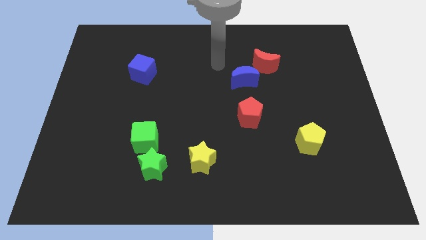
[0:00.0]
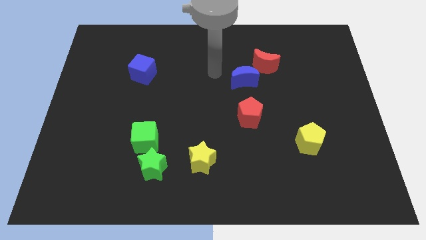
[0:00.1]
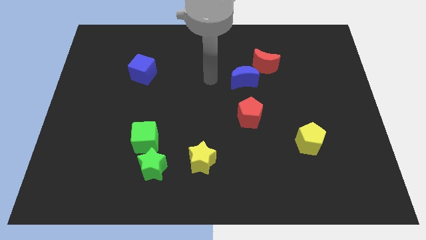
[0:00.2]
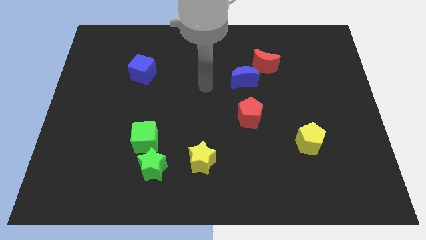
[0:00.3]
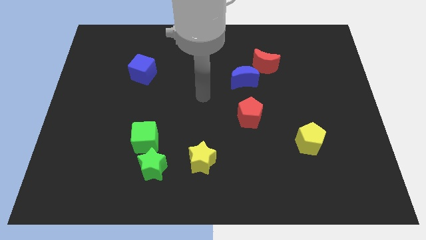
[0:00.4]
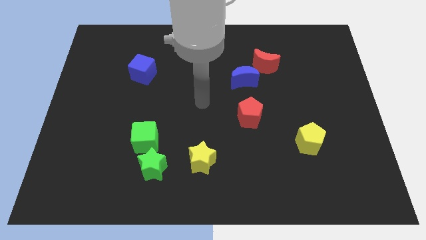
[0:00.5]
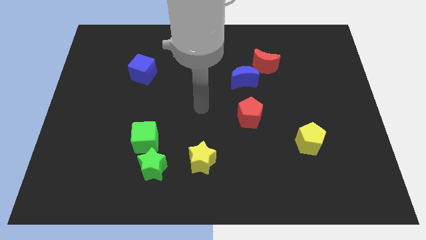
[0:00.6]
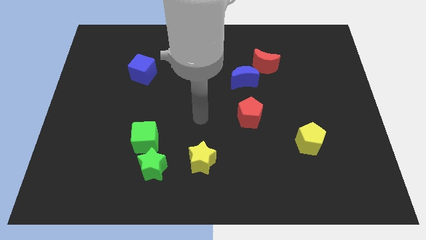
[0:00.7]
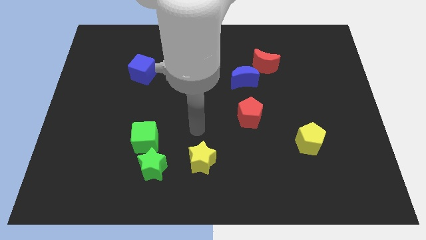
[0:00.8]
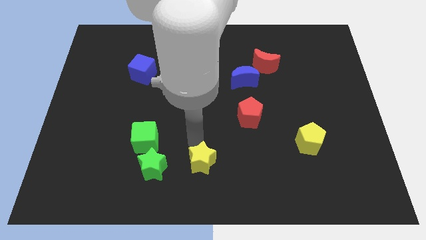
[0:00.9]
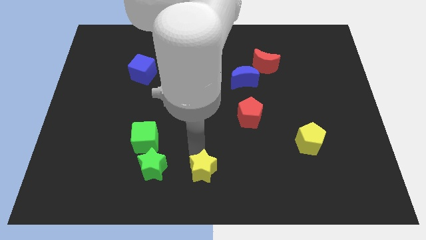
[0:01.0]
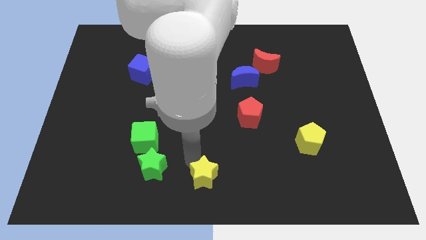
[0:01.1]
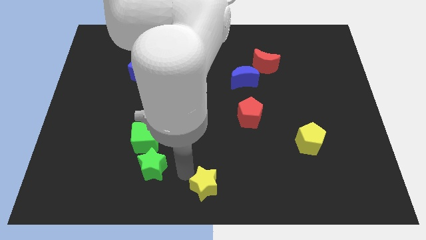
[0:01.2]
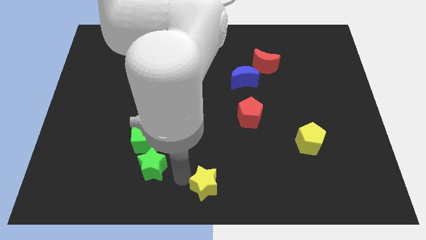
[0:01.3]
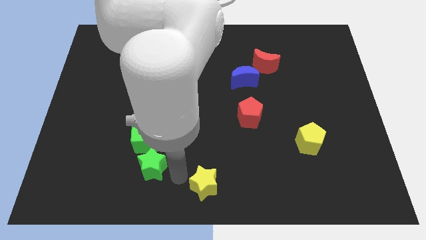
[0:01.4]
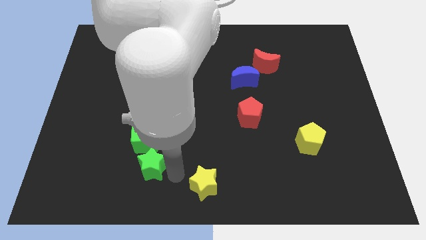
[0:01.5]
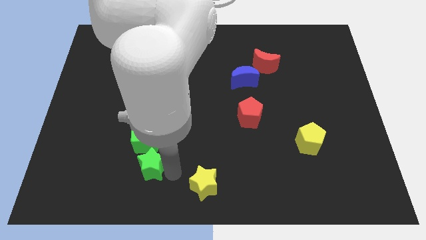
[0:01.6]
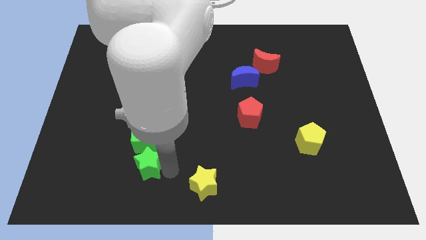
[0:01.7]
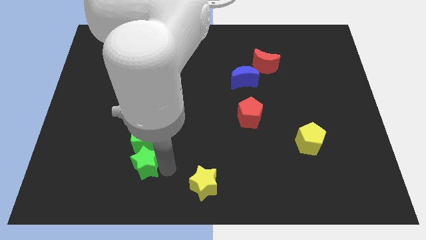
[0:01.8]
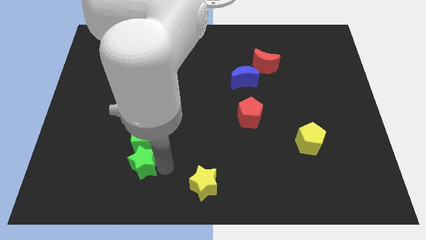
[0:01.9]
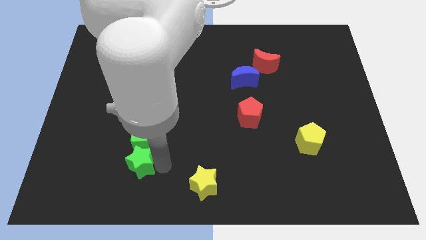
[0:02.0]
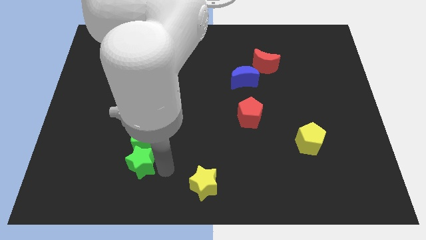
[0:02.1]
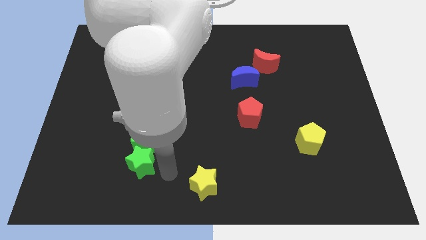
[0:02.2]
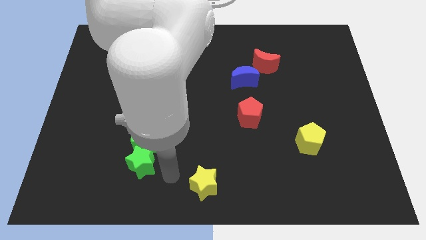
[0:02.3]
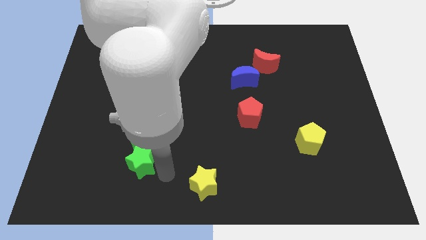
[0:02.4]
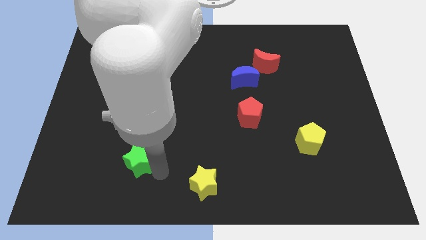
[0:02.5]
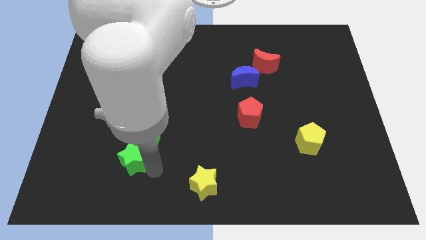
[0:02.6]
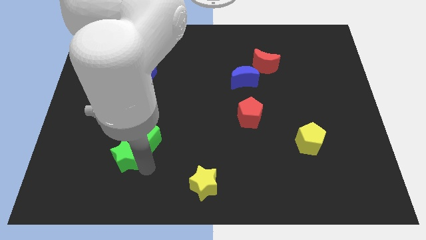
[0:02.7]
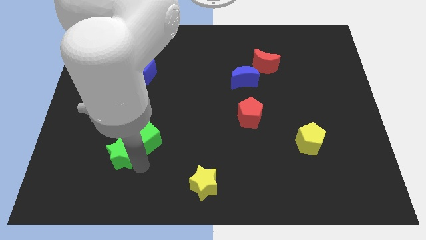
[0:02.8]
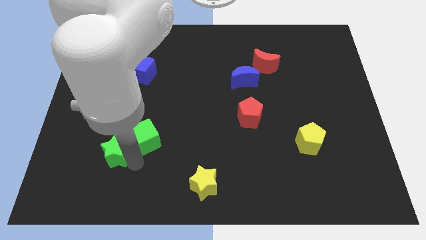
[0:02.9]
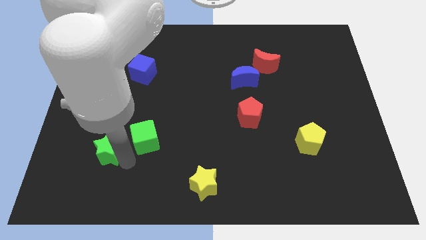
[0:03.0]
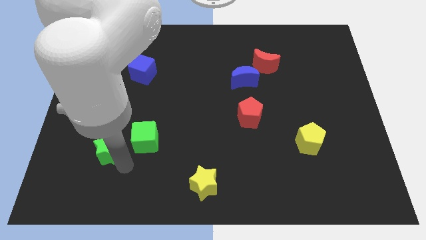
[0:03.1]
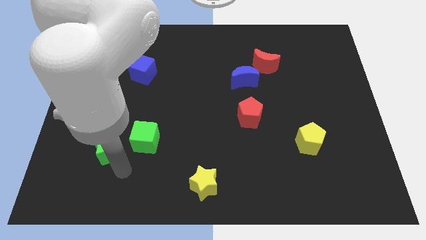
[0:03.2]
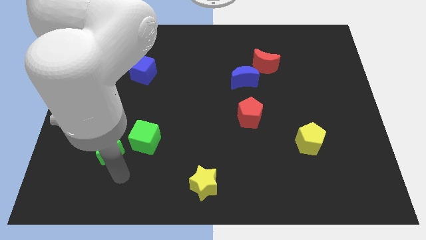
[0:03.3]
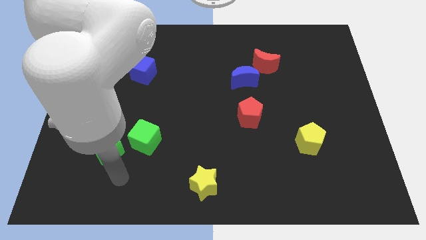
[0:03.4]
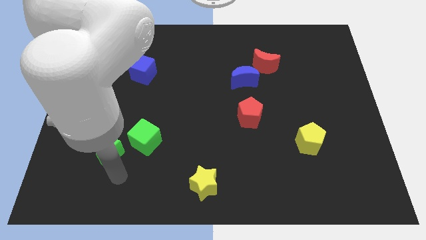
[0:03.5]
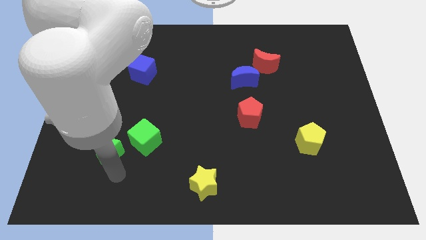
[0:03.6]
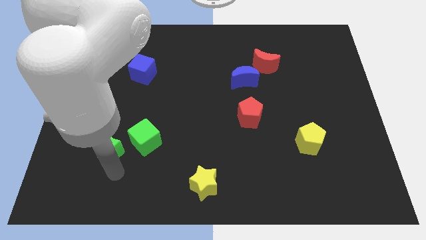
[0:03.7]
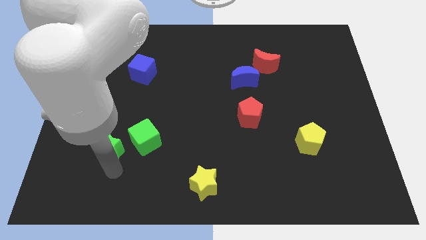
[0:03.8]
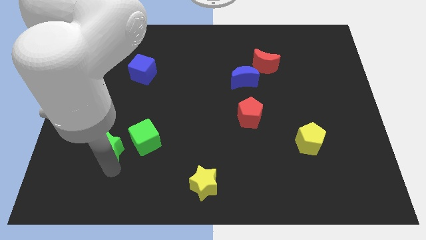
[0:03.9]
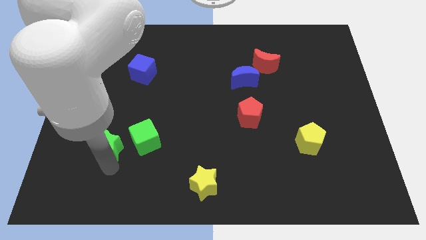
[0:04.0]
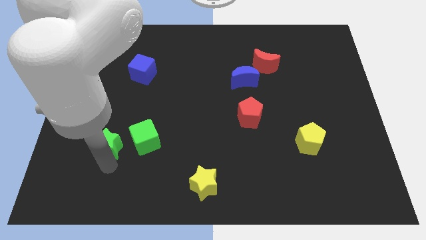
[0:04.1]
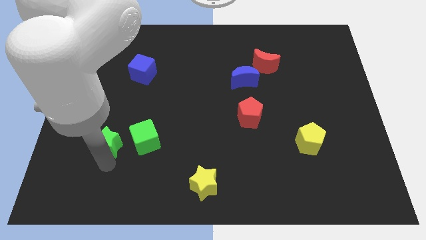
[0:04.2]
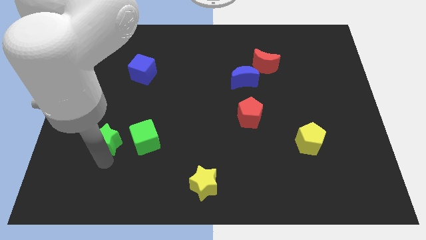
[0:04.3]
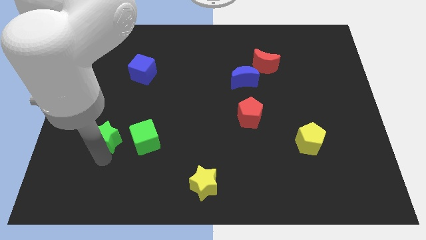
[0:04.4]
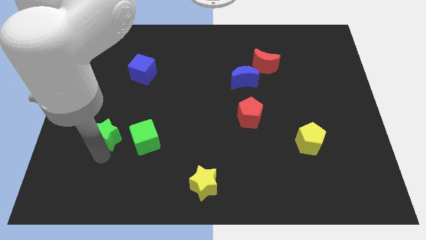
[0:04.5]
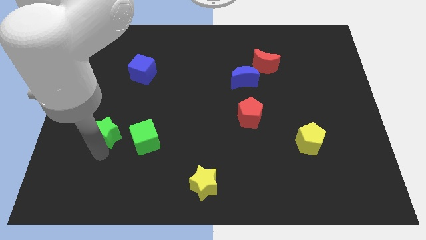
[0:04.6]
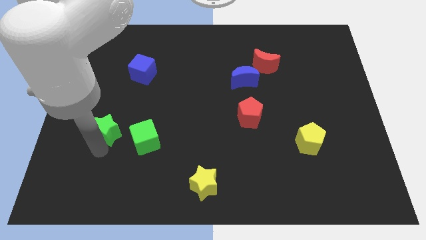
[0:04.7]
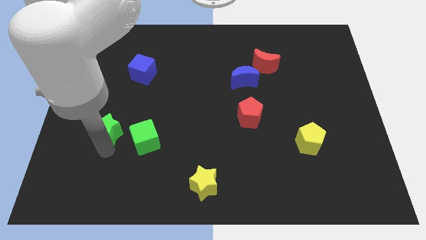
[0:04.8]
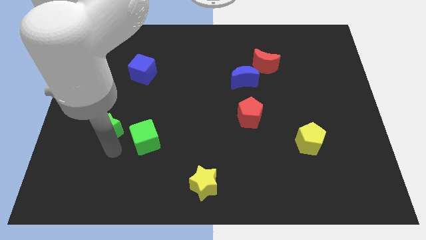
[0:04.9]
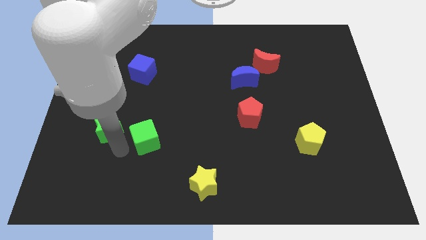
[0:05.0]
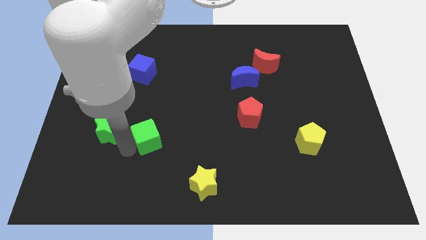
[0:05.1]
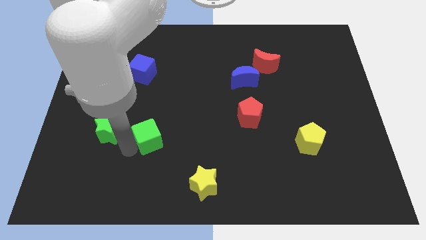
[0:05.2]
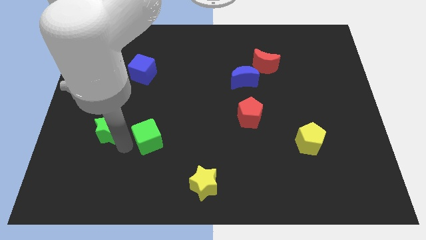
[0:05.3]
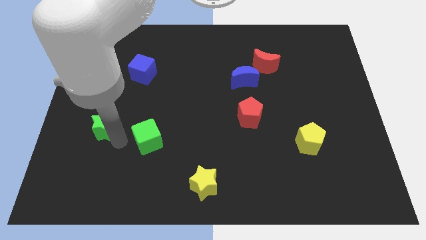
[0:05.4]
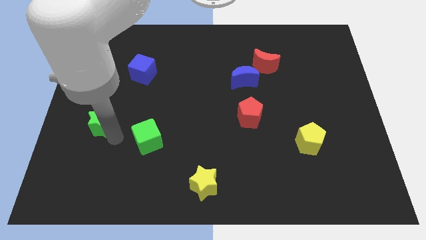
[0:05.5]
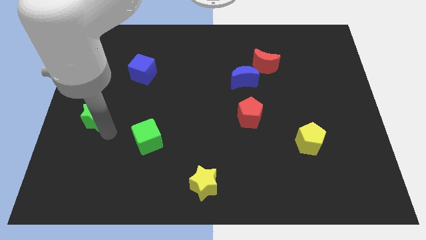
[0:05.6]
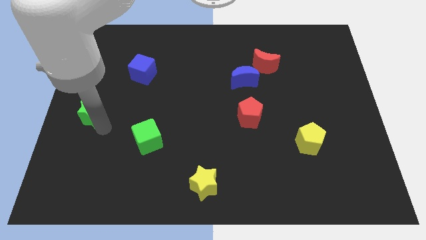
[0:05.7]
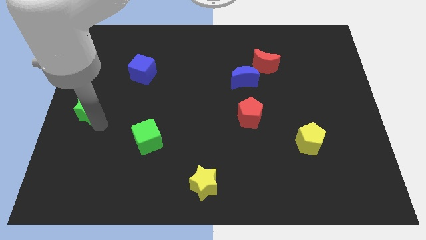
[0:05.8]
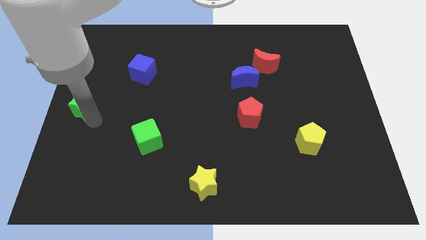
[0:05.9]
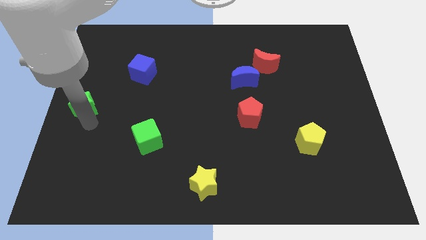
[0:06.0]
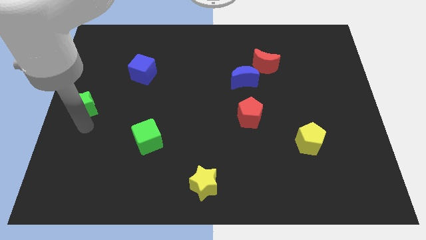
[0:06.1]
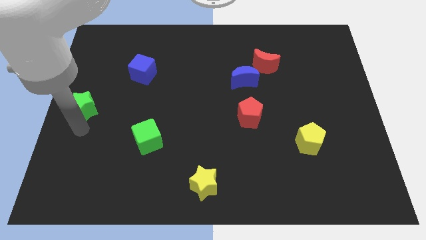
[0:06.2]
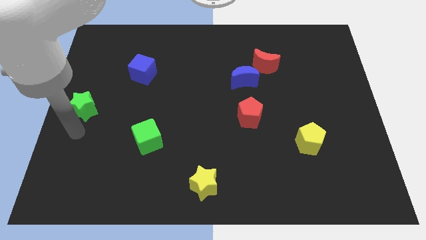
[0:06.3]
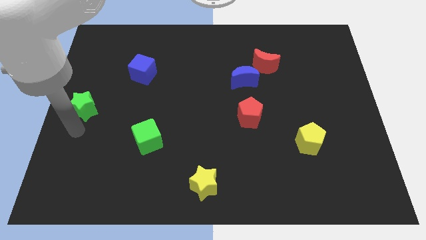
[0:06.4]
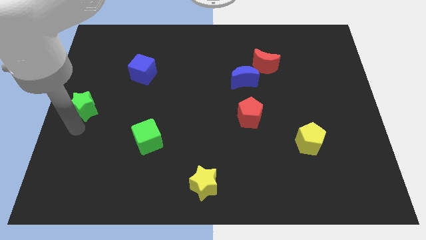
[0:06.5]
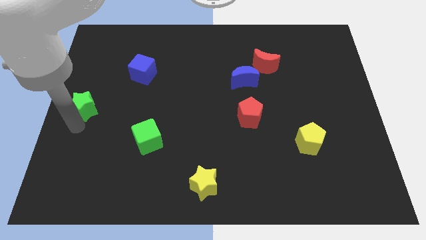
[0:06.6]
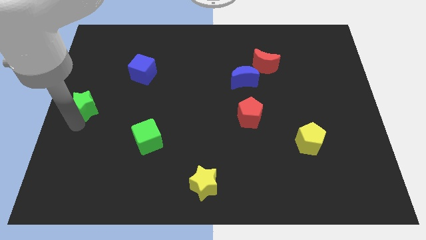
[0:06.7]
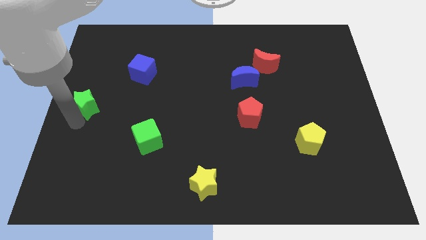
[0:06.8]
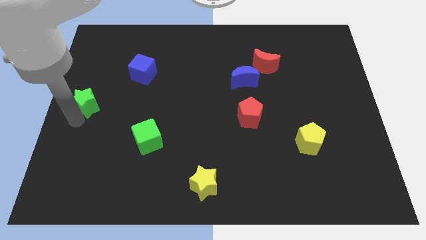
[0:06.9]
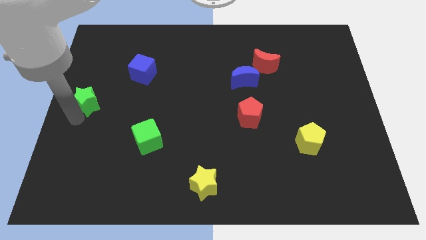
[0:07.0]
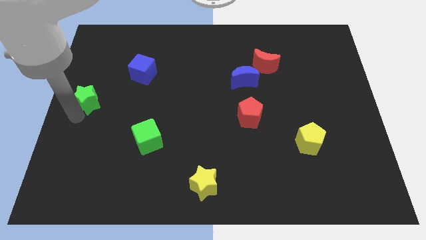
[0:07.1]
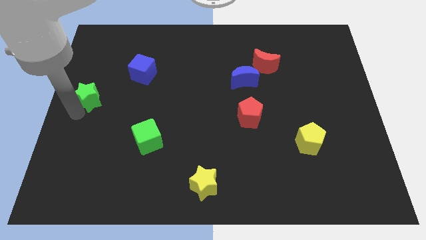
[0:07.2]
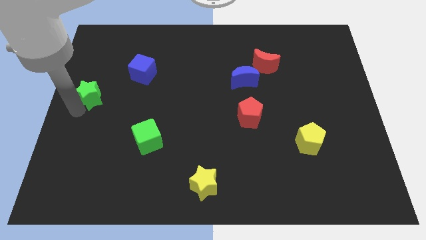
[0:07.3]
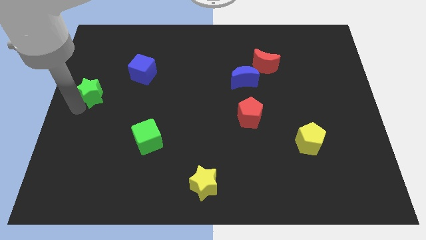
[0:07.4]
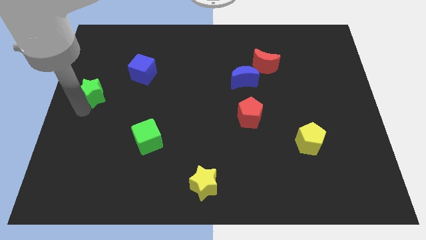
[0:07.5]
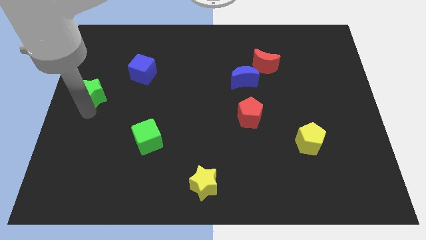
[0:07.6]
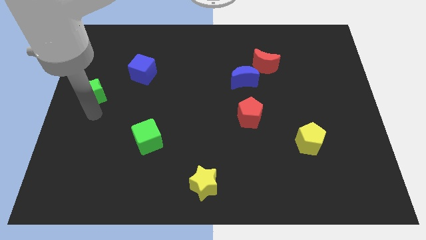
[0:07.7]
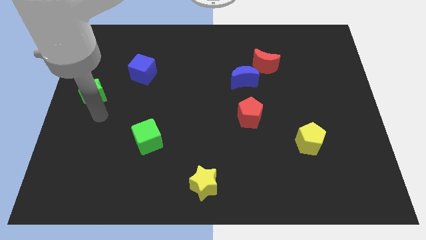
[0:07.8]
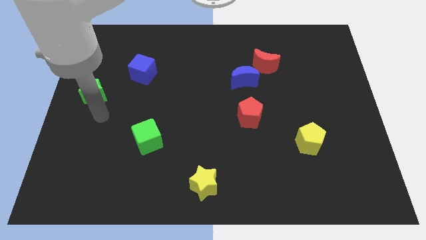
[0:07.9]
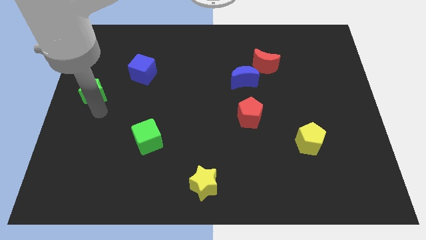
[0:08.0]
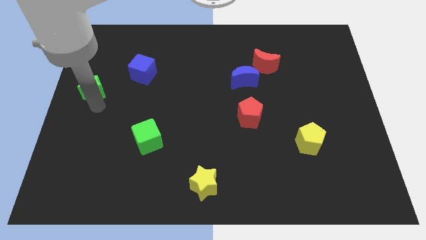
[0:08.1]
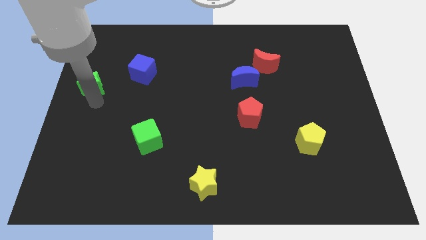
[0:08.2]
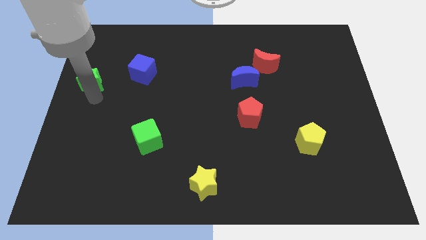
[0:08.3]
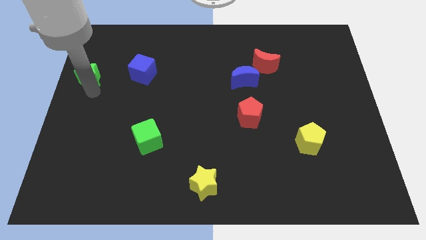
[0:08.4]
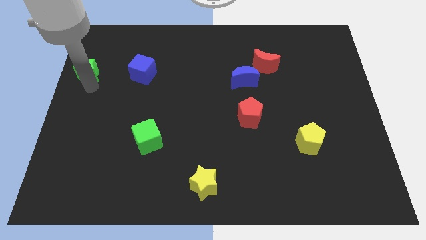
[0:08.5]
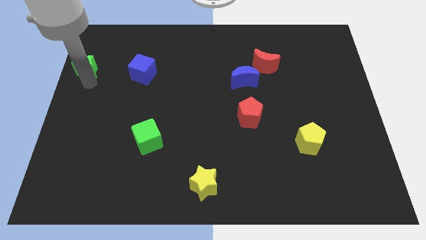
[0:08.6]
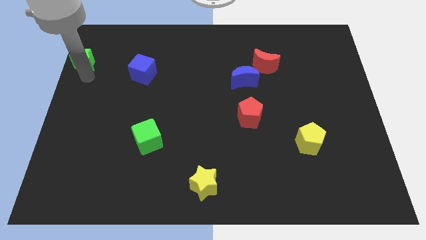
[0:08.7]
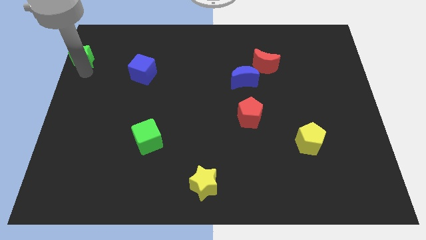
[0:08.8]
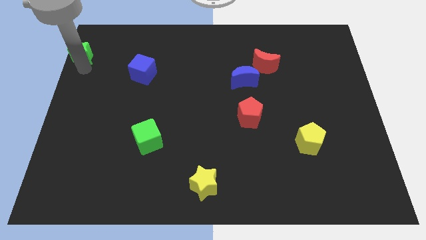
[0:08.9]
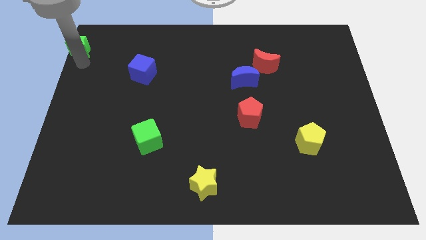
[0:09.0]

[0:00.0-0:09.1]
put the green star to the top left corner
